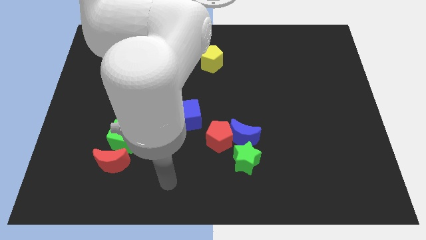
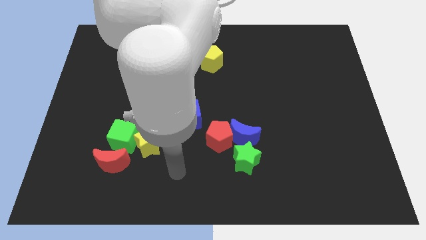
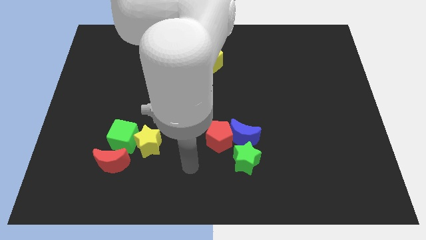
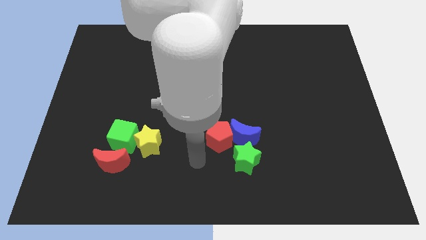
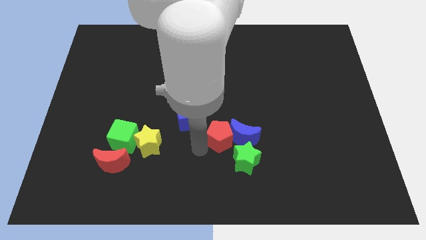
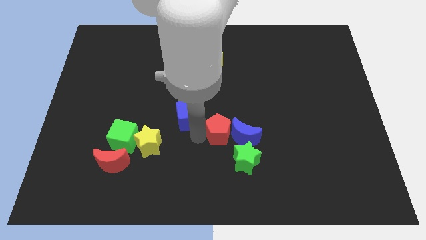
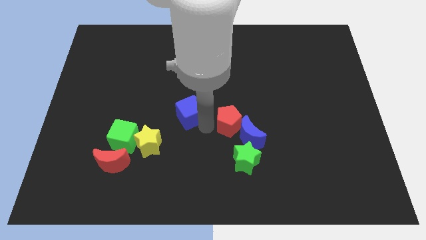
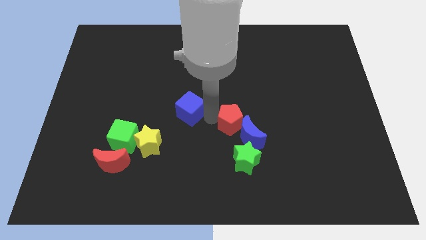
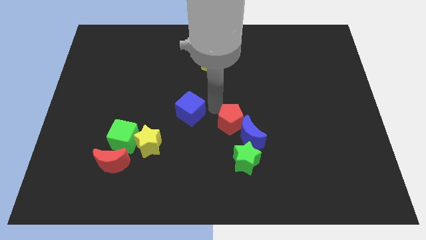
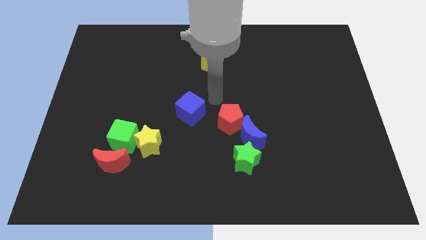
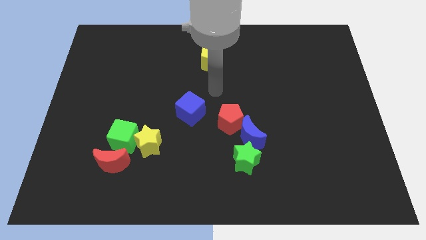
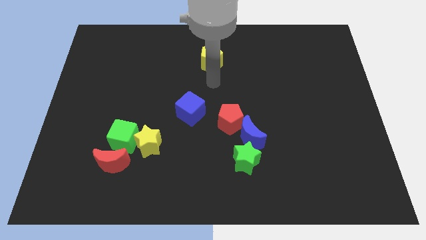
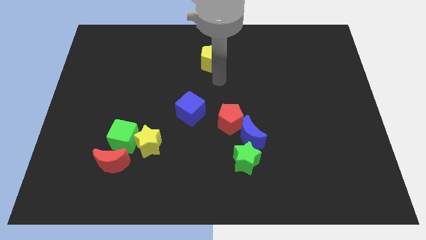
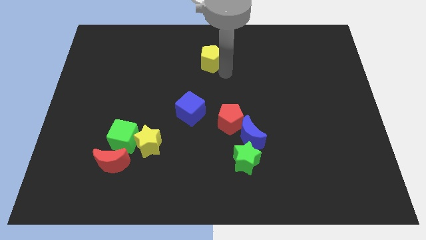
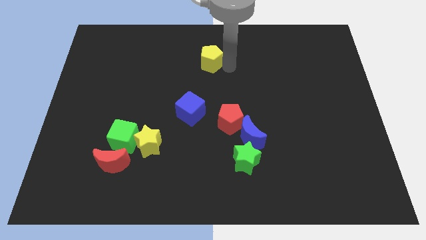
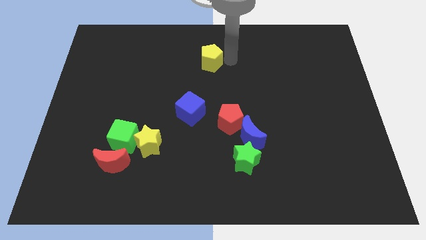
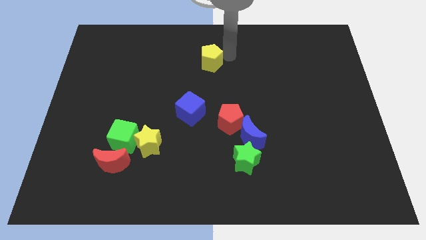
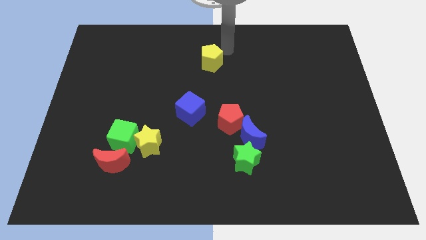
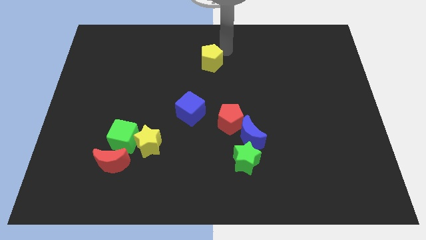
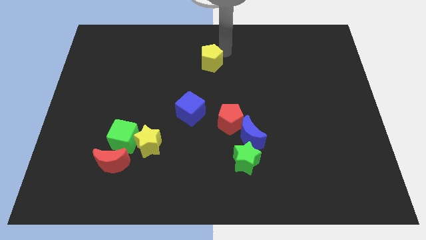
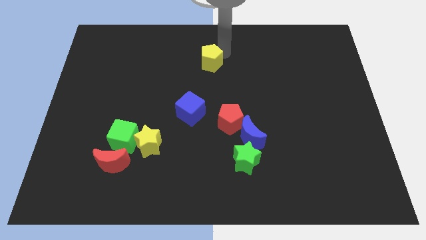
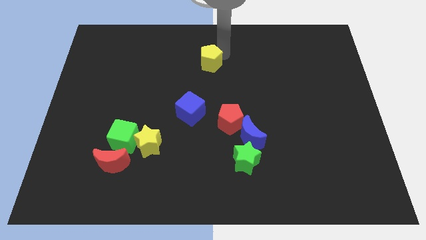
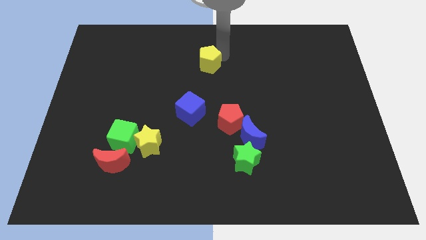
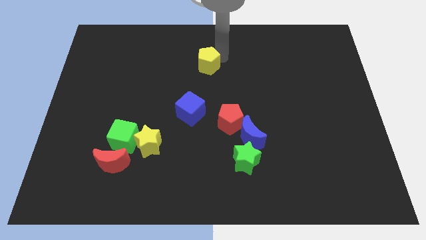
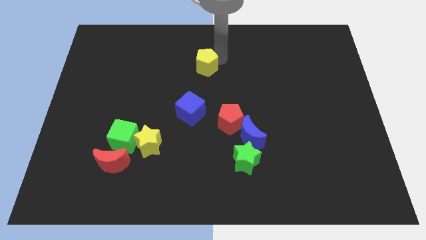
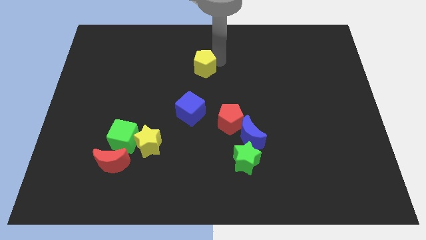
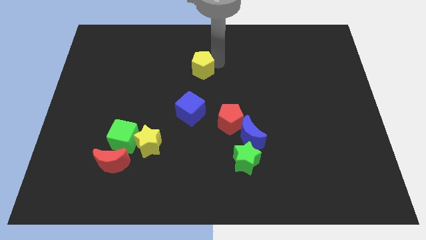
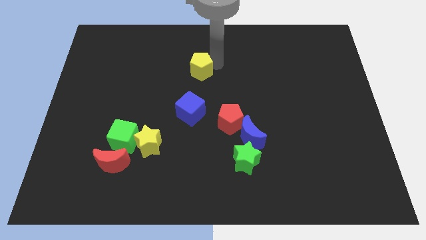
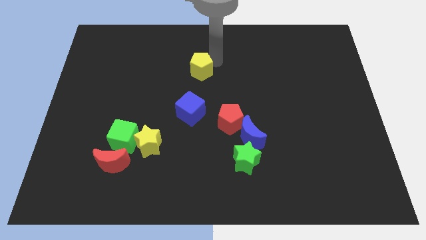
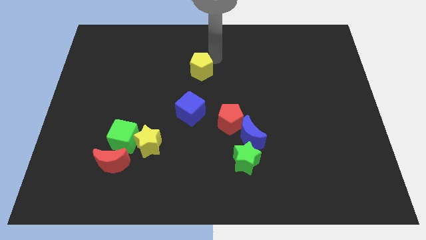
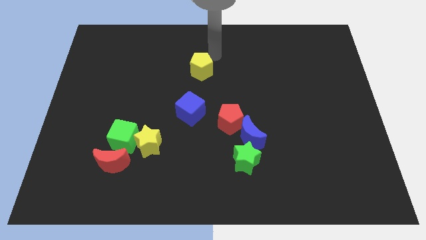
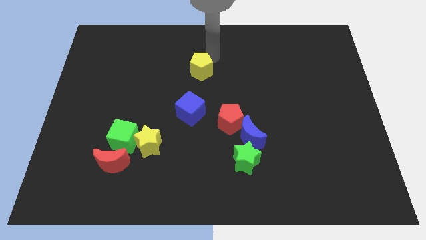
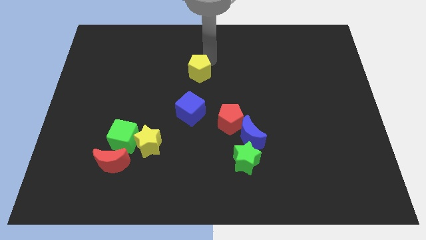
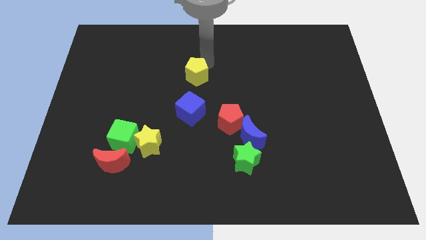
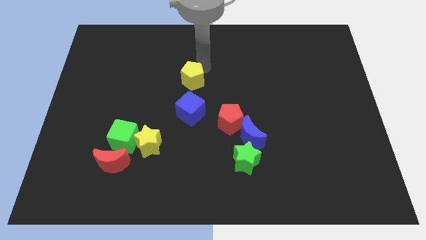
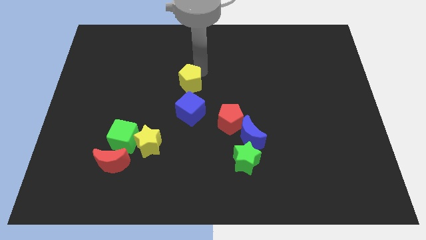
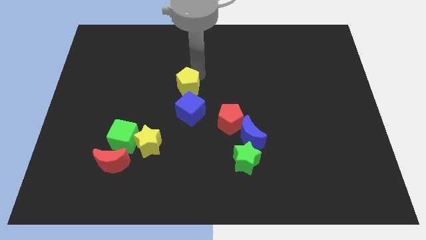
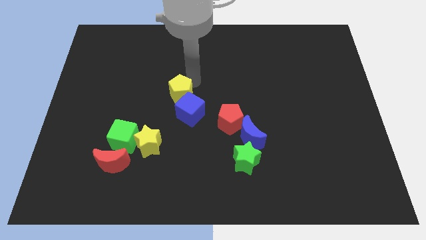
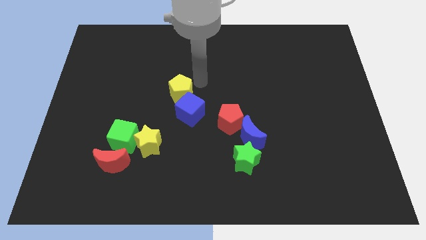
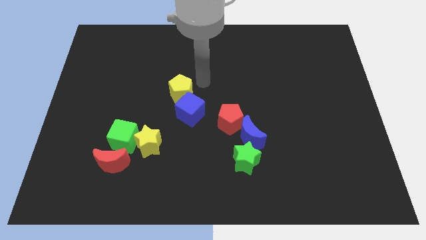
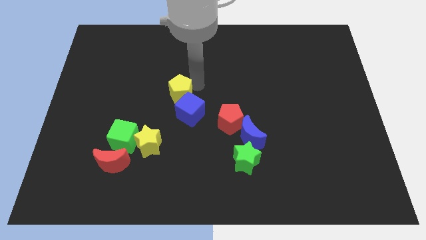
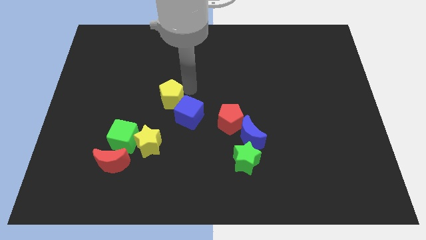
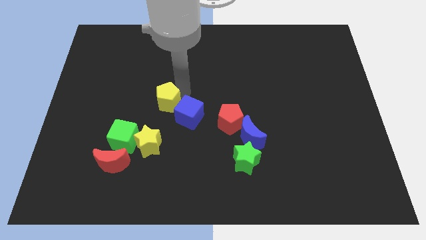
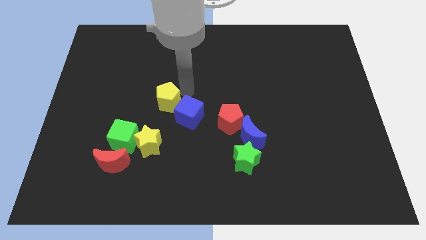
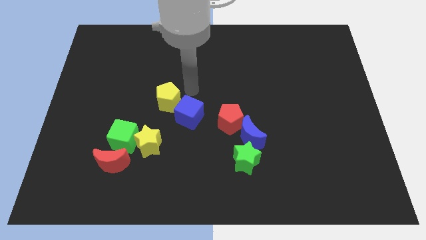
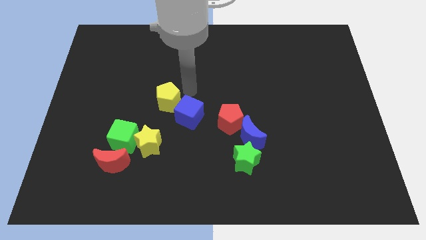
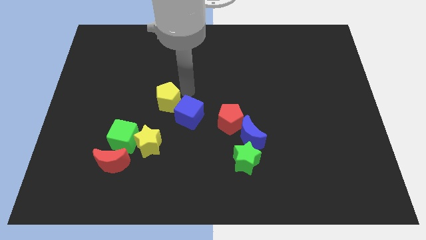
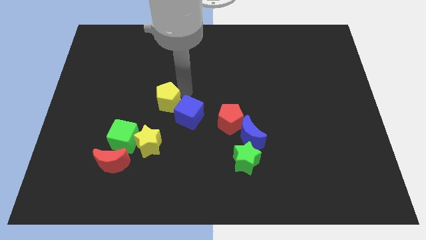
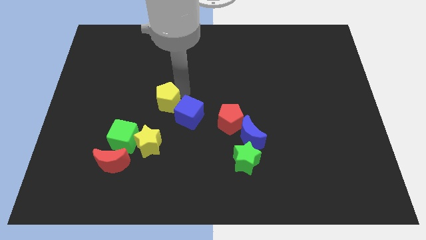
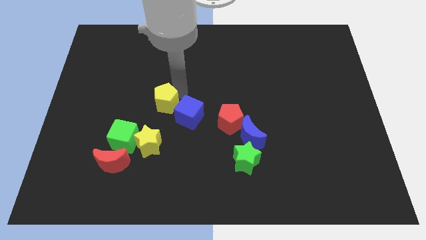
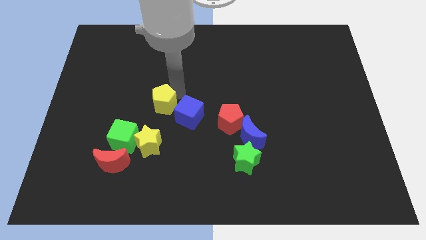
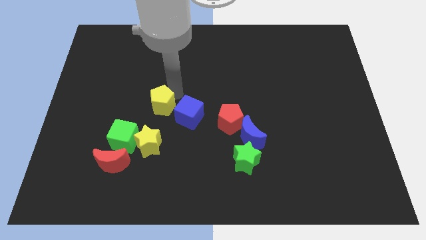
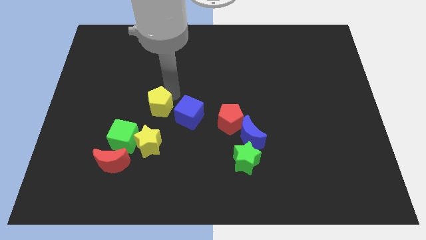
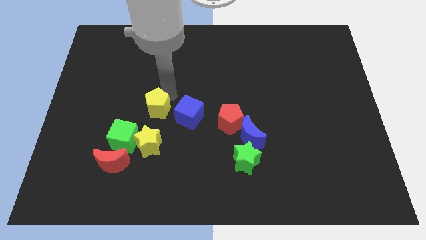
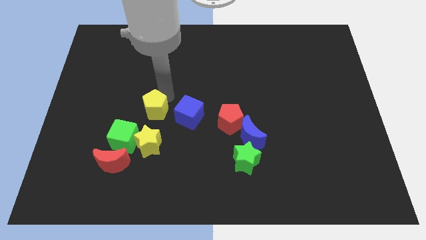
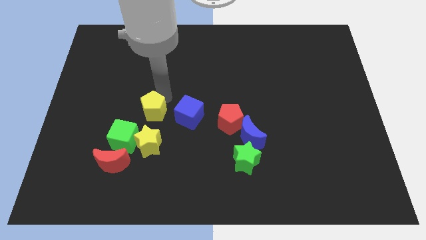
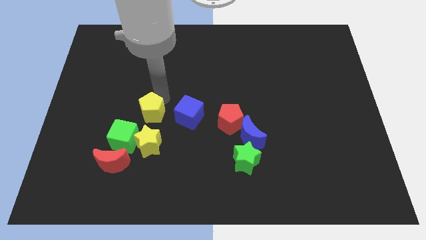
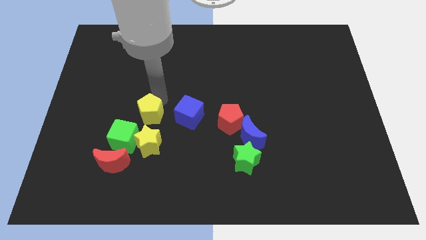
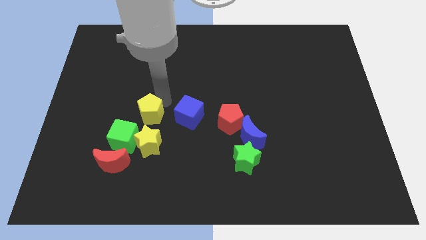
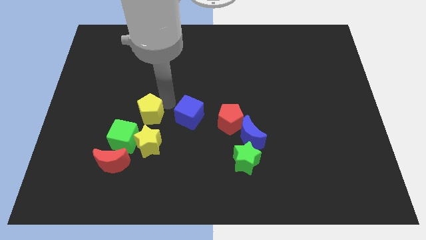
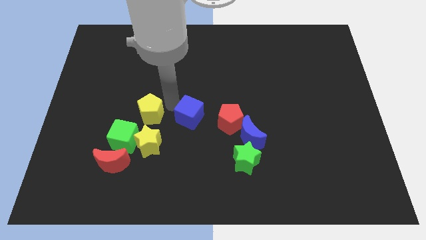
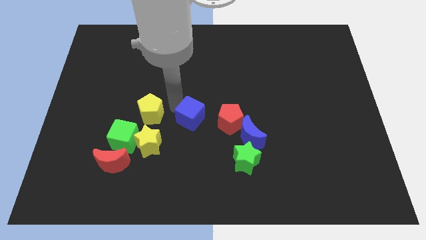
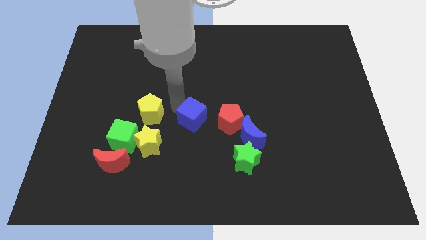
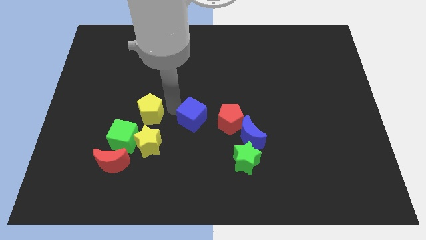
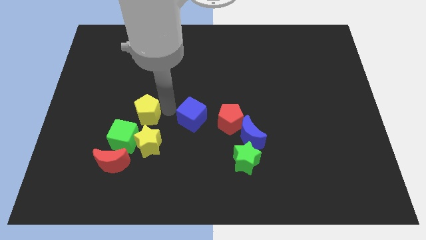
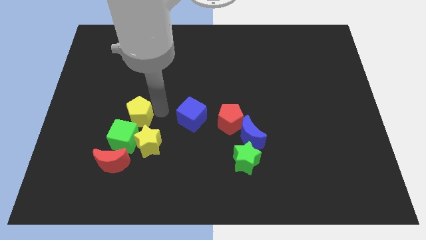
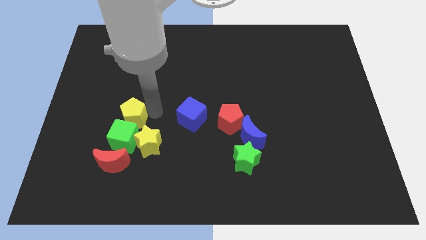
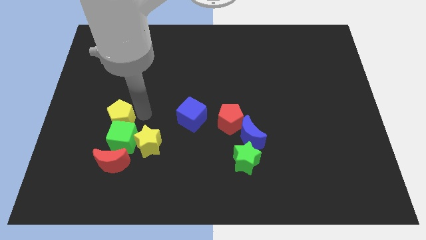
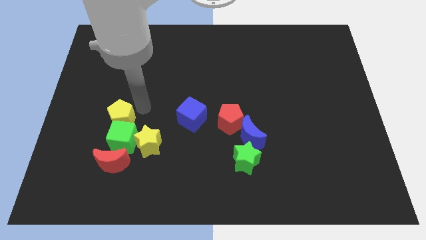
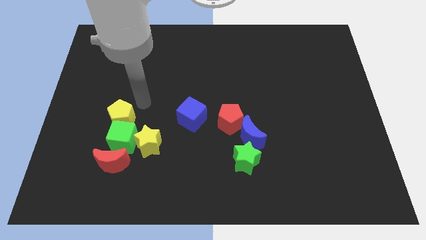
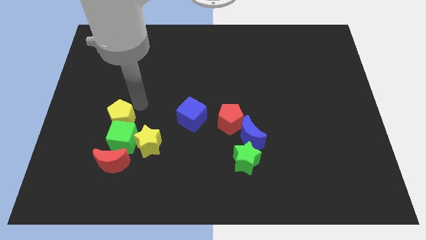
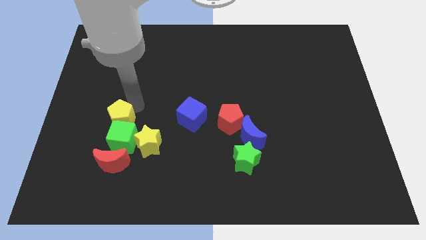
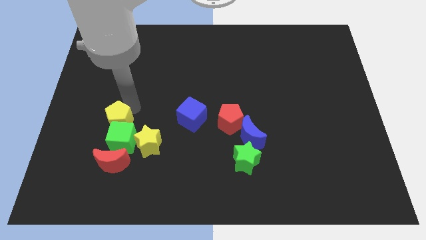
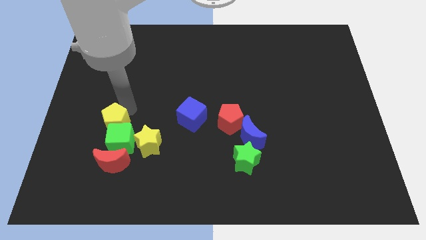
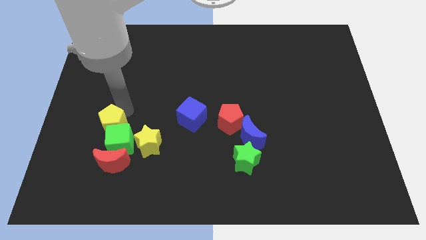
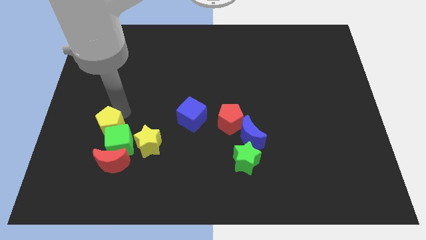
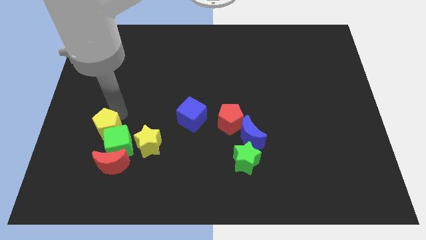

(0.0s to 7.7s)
slide the yellow pentagon to the top left side of the red moon
